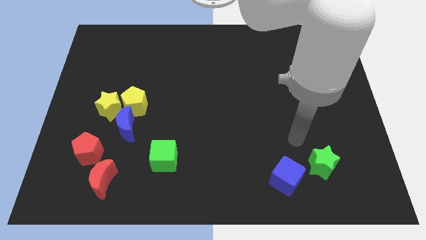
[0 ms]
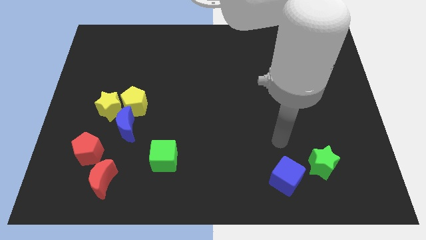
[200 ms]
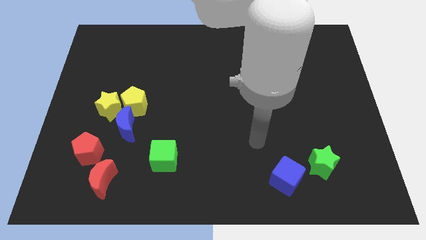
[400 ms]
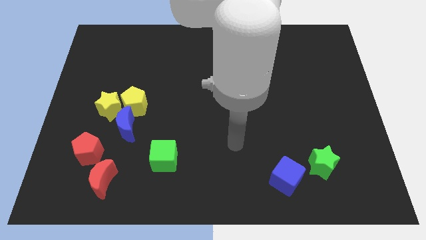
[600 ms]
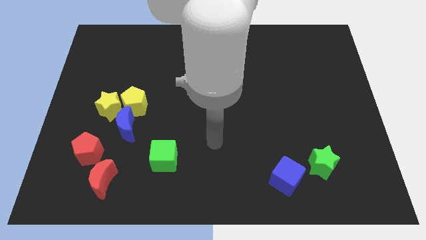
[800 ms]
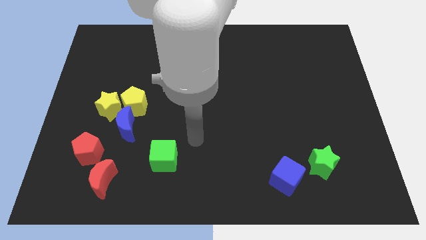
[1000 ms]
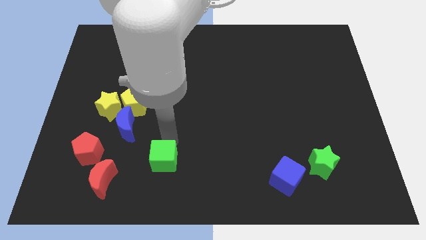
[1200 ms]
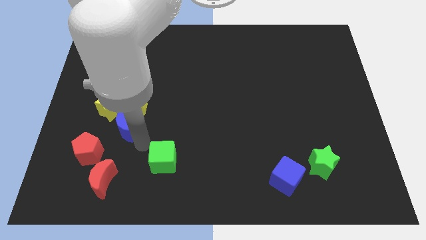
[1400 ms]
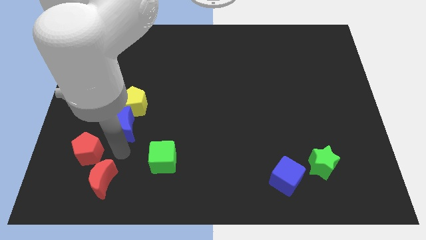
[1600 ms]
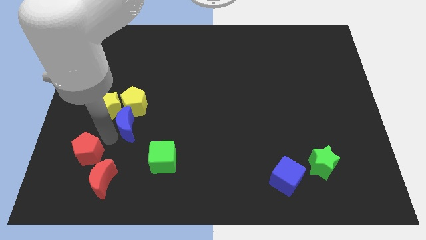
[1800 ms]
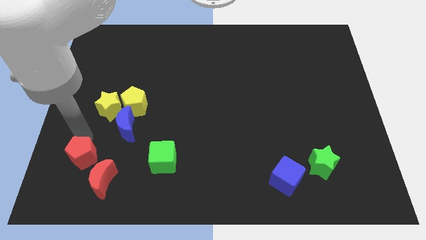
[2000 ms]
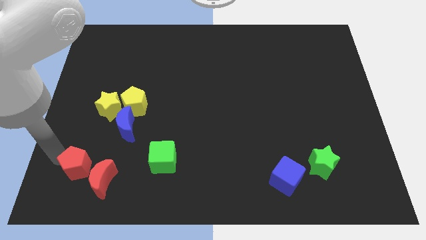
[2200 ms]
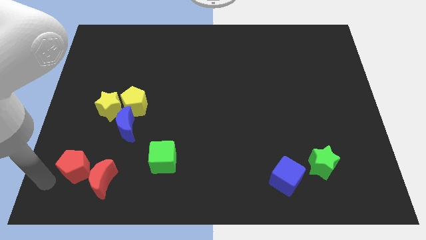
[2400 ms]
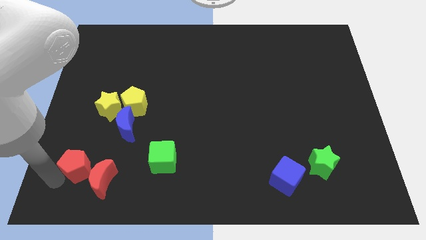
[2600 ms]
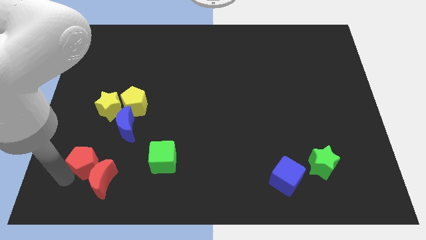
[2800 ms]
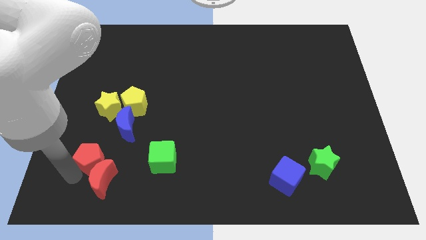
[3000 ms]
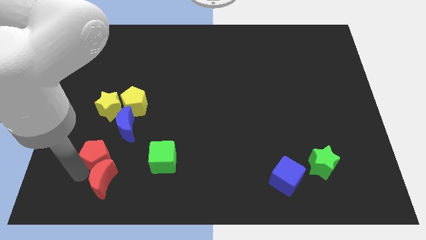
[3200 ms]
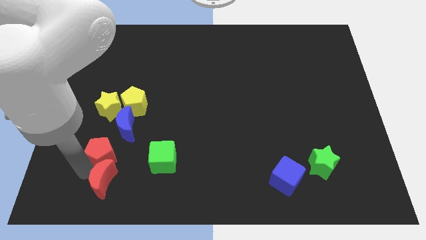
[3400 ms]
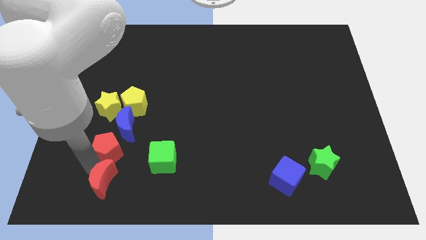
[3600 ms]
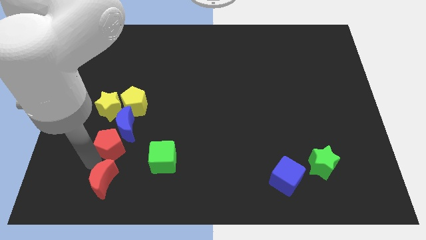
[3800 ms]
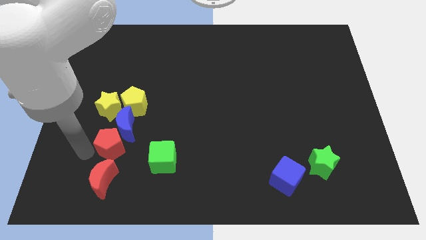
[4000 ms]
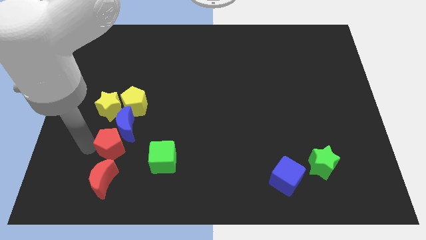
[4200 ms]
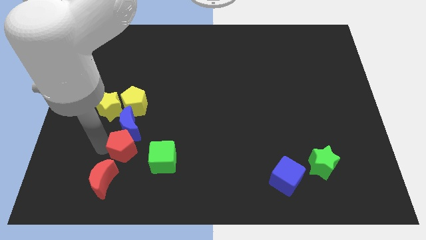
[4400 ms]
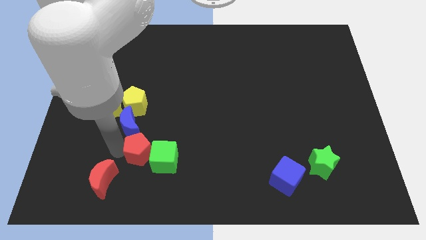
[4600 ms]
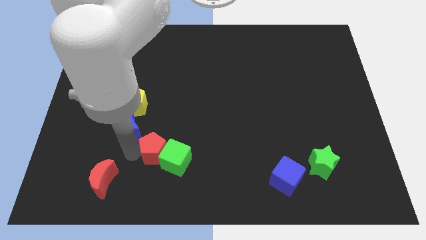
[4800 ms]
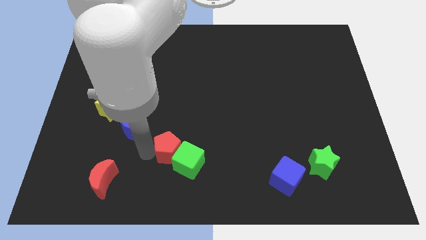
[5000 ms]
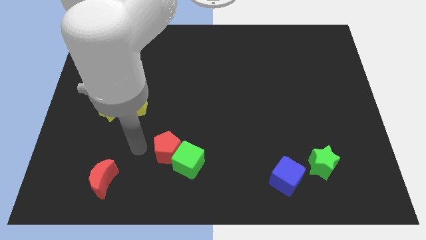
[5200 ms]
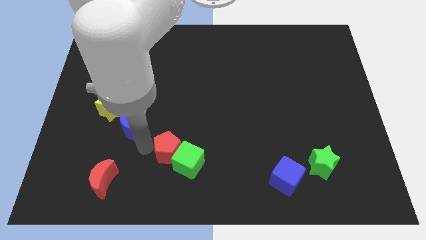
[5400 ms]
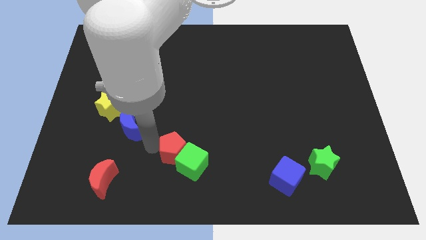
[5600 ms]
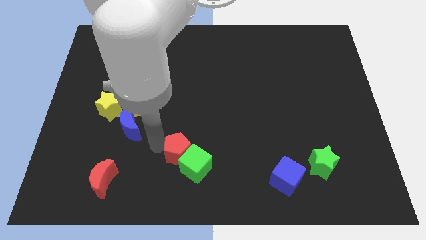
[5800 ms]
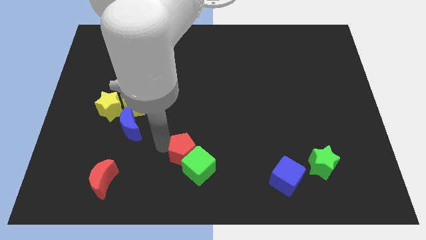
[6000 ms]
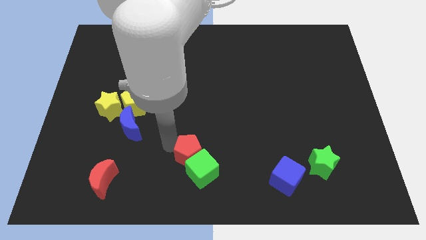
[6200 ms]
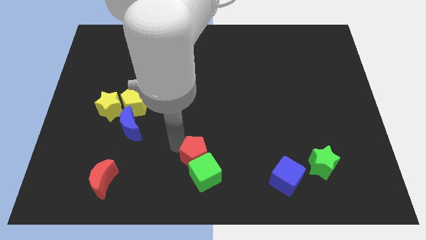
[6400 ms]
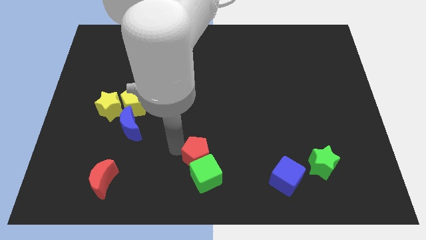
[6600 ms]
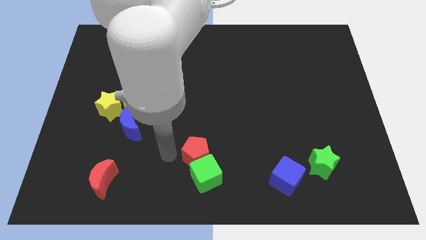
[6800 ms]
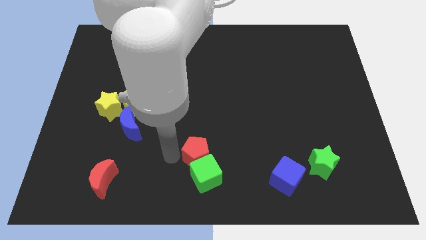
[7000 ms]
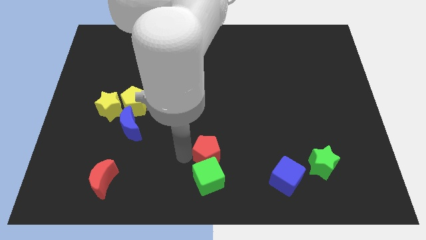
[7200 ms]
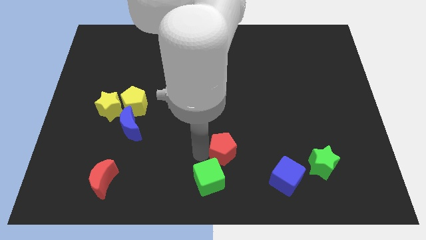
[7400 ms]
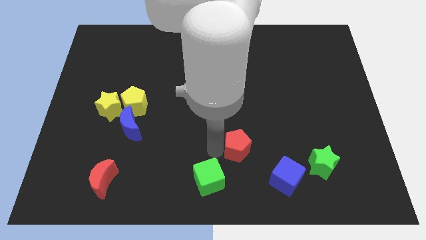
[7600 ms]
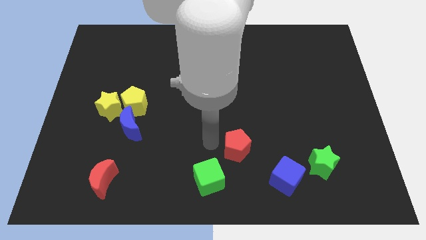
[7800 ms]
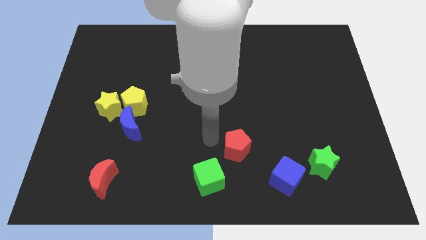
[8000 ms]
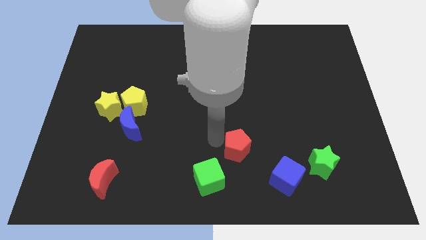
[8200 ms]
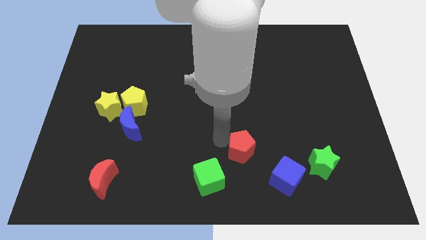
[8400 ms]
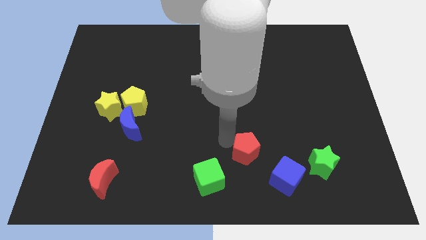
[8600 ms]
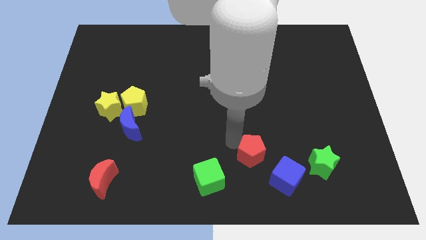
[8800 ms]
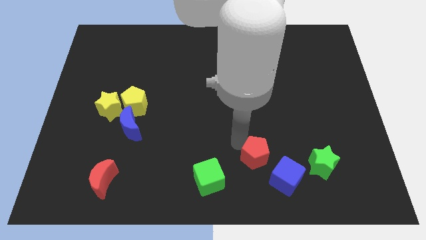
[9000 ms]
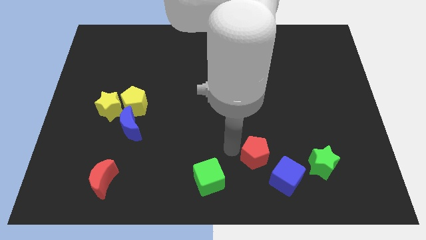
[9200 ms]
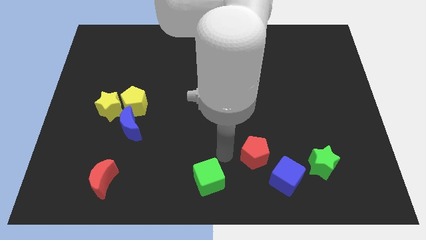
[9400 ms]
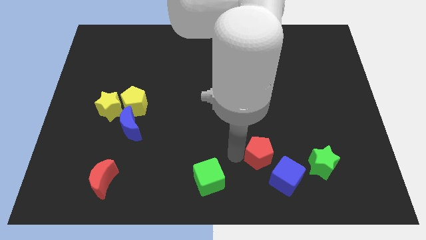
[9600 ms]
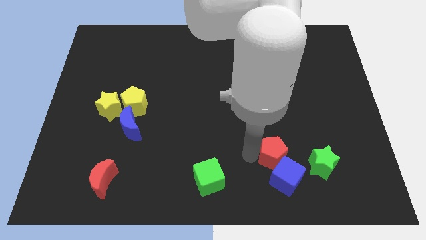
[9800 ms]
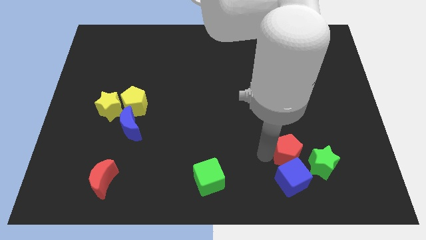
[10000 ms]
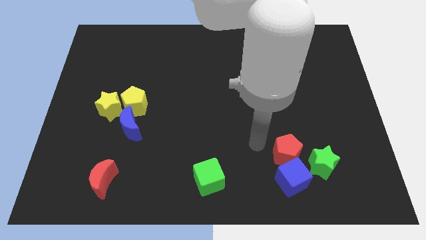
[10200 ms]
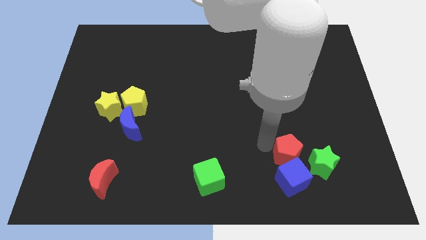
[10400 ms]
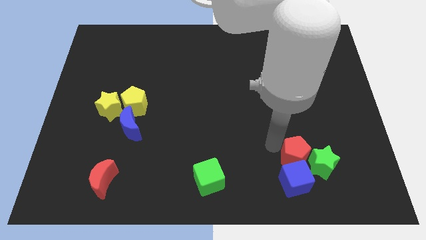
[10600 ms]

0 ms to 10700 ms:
slide the red pentagon to the green star

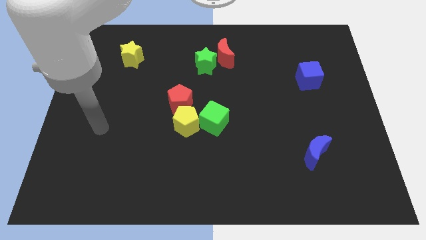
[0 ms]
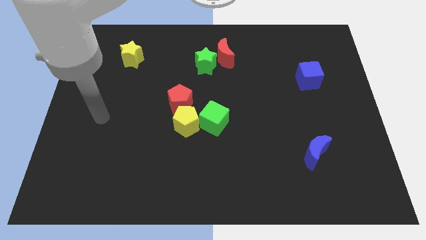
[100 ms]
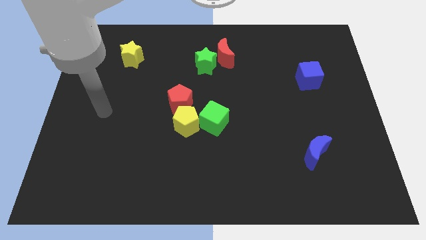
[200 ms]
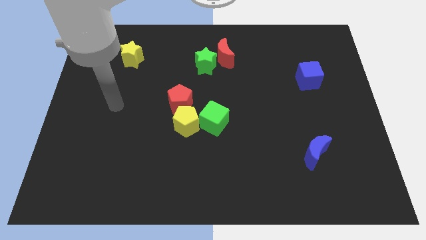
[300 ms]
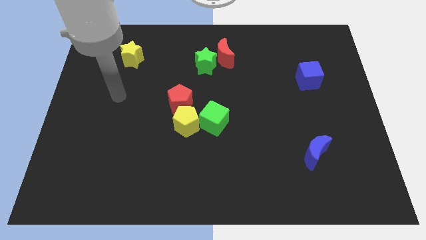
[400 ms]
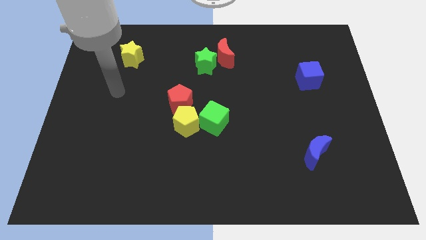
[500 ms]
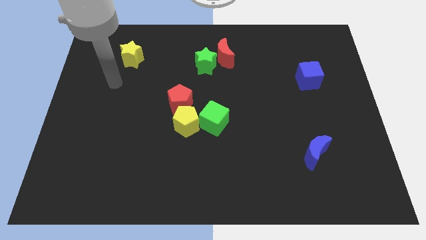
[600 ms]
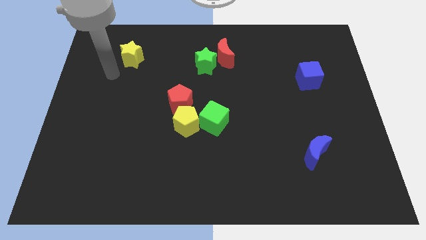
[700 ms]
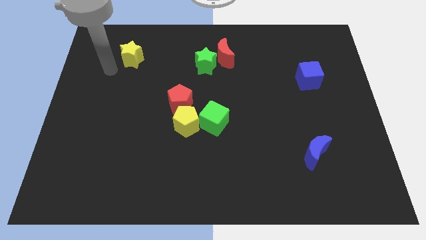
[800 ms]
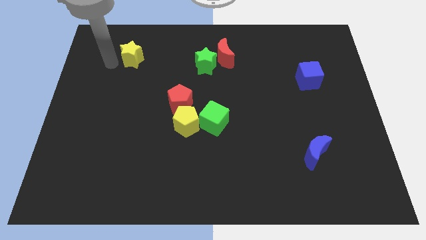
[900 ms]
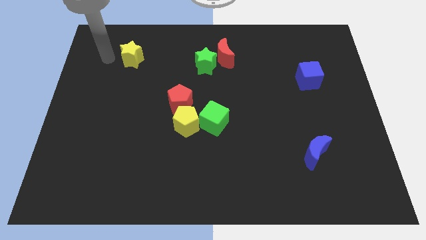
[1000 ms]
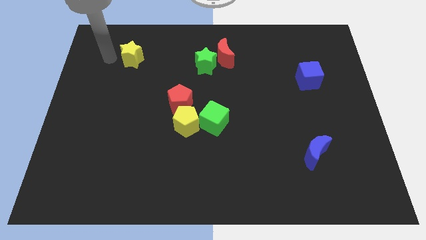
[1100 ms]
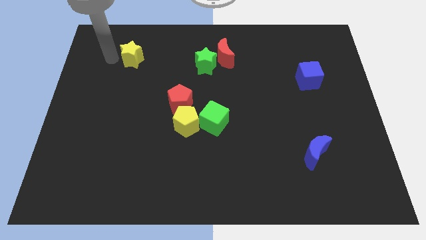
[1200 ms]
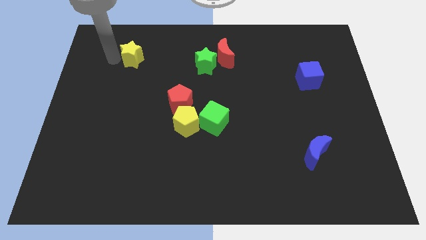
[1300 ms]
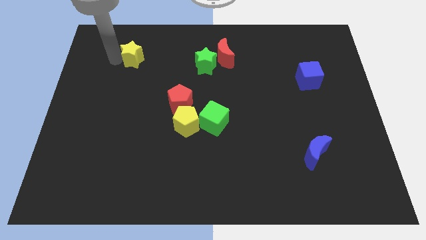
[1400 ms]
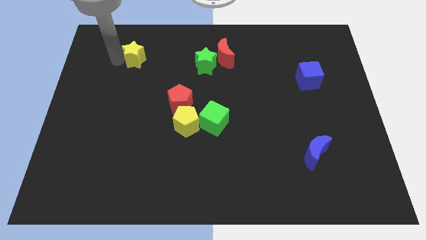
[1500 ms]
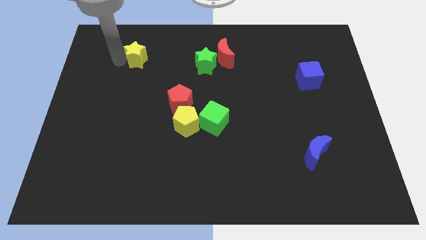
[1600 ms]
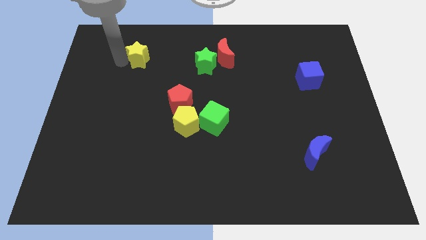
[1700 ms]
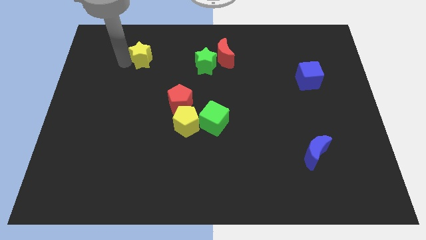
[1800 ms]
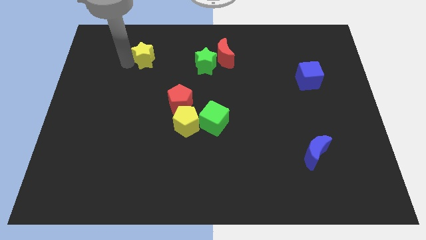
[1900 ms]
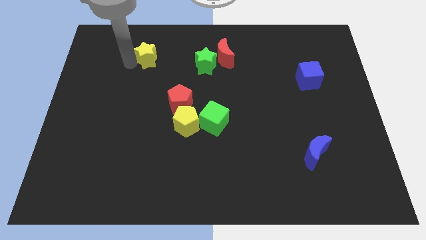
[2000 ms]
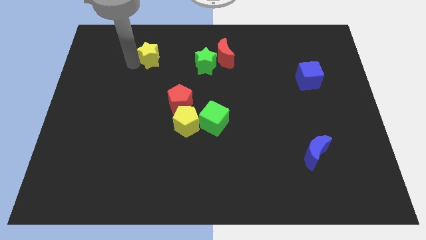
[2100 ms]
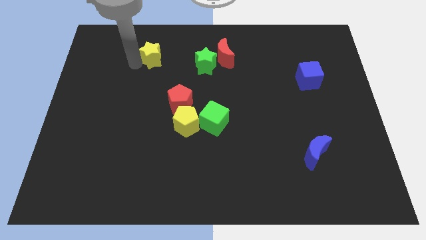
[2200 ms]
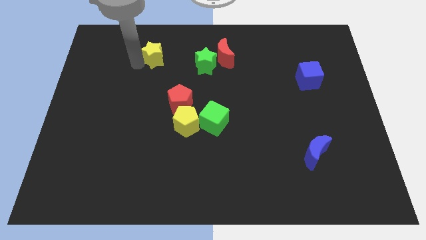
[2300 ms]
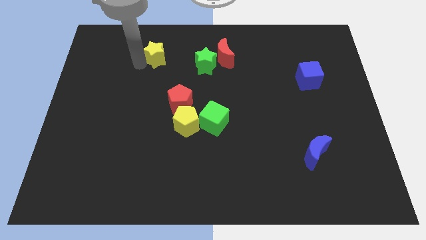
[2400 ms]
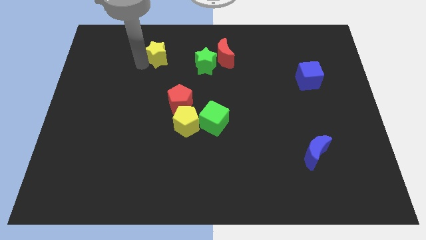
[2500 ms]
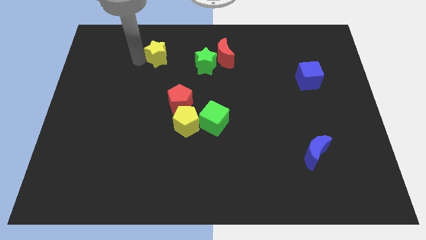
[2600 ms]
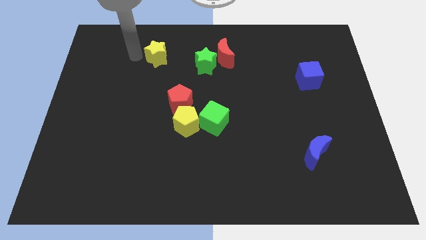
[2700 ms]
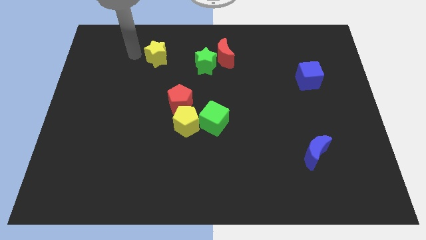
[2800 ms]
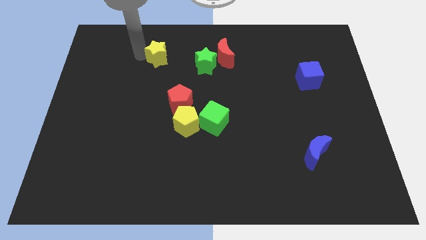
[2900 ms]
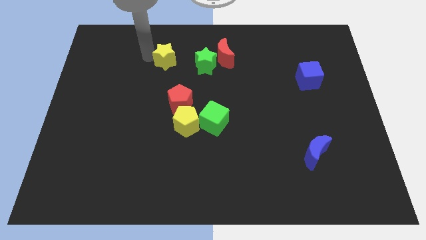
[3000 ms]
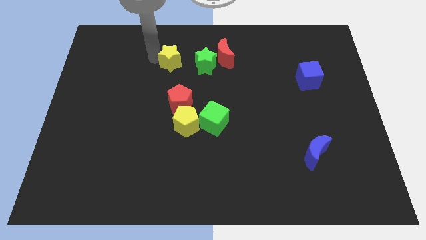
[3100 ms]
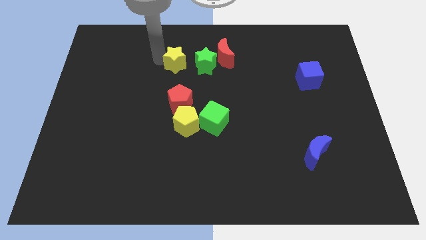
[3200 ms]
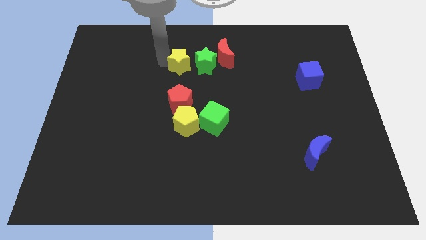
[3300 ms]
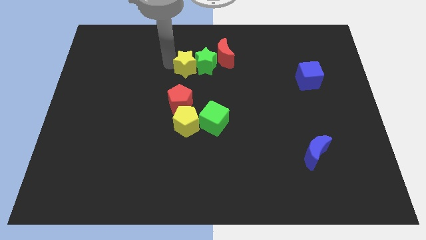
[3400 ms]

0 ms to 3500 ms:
move the yellow star close to the green star
